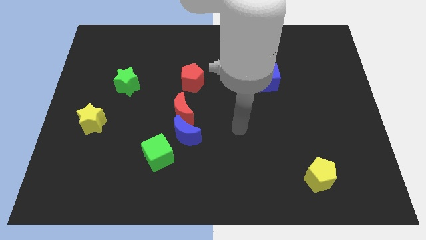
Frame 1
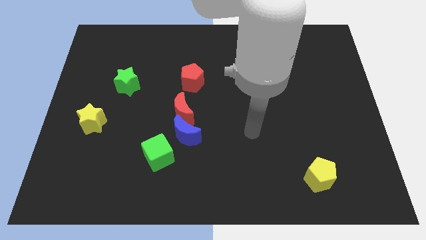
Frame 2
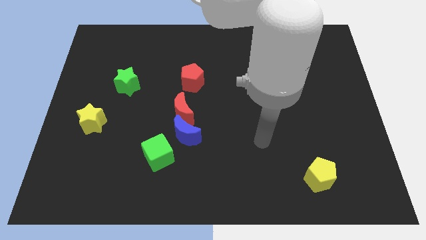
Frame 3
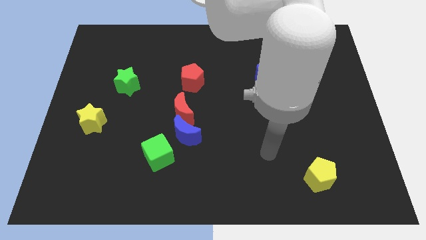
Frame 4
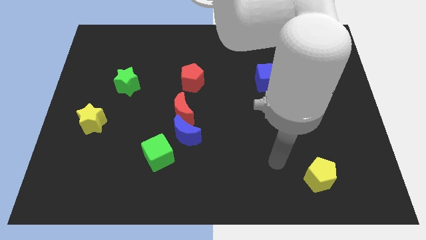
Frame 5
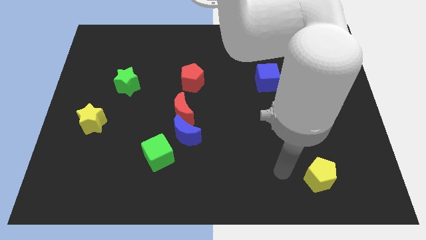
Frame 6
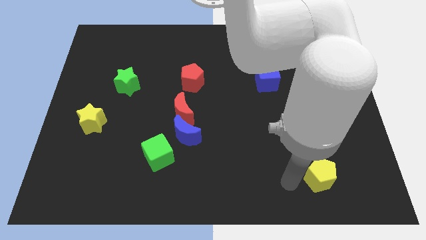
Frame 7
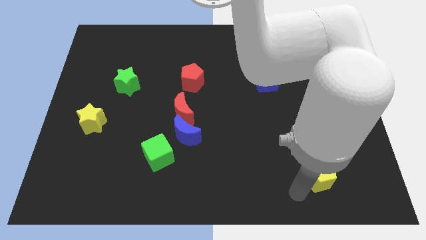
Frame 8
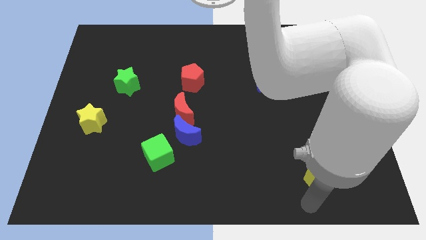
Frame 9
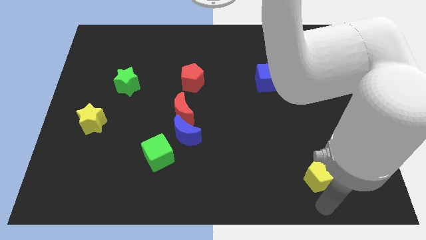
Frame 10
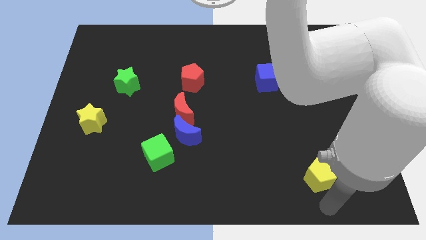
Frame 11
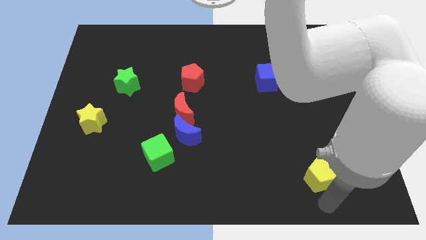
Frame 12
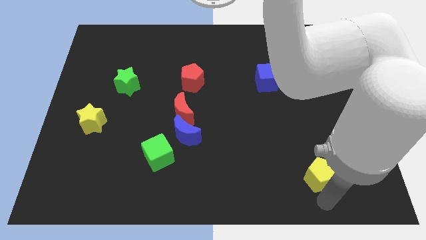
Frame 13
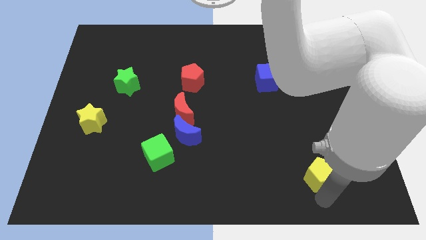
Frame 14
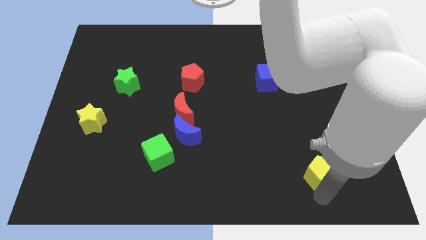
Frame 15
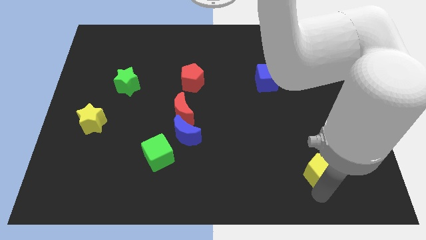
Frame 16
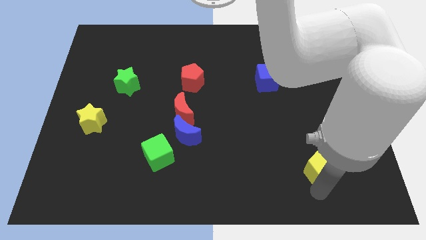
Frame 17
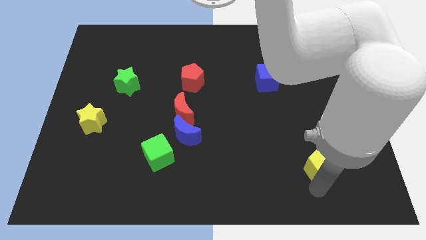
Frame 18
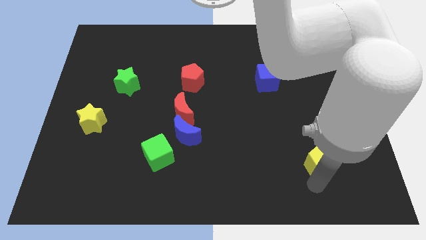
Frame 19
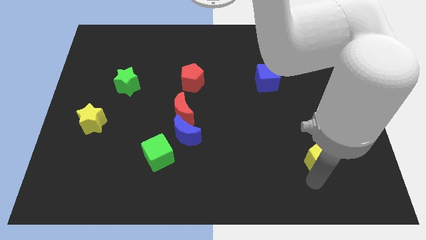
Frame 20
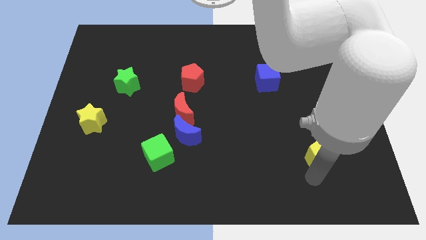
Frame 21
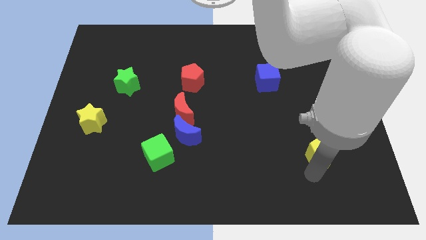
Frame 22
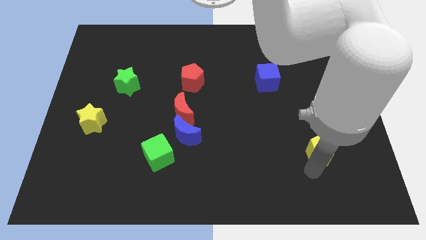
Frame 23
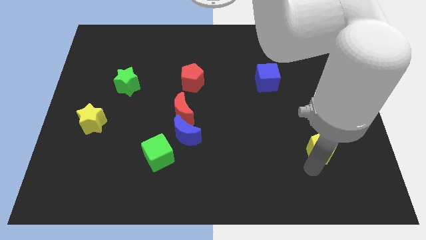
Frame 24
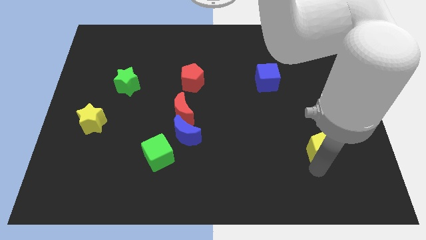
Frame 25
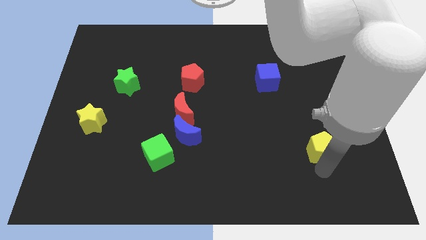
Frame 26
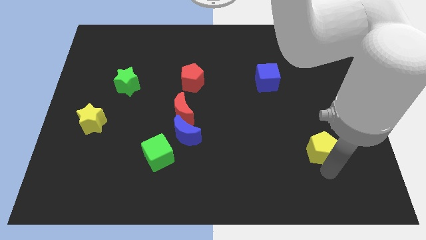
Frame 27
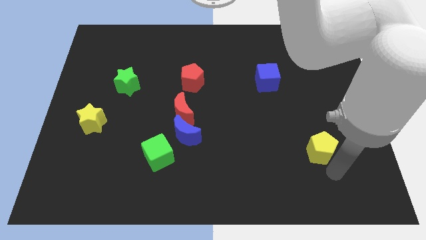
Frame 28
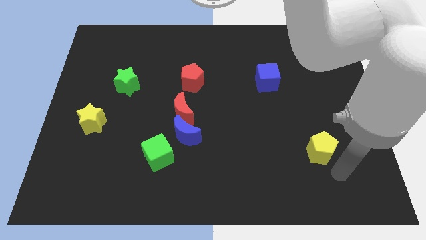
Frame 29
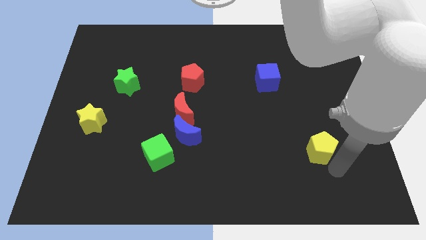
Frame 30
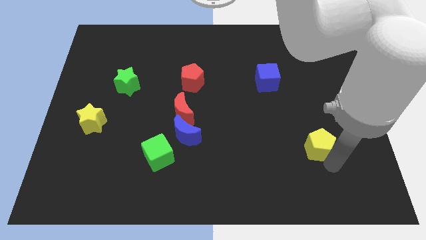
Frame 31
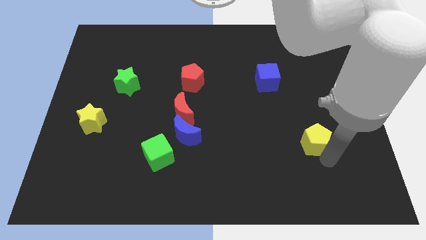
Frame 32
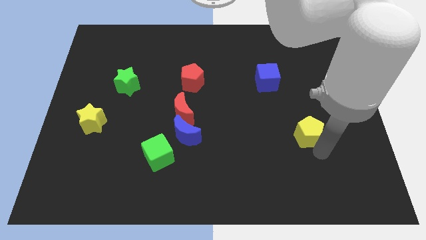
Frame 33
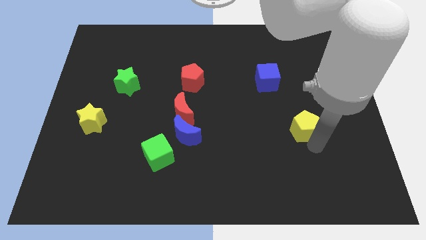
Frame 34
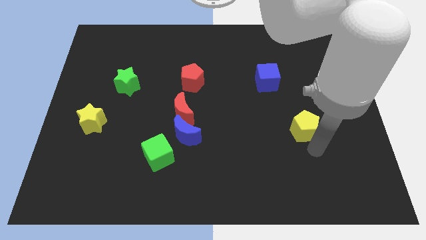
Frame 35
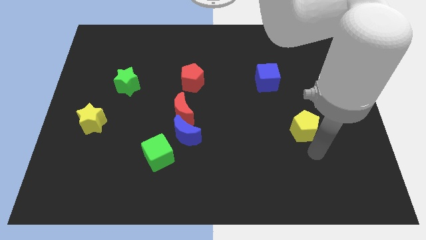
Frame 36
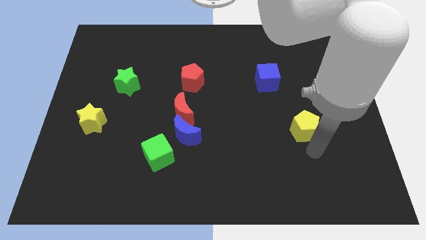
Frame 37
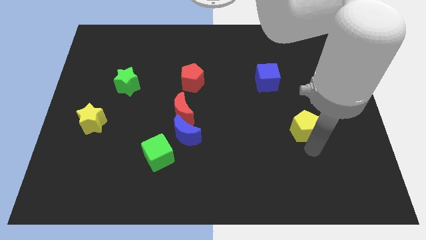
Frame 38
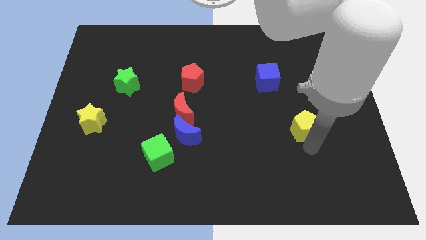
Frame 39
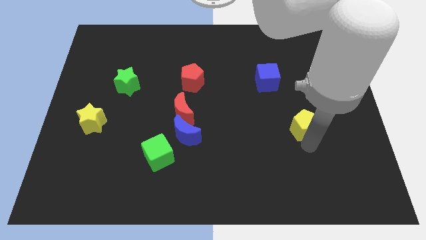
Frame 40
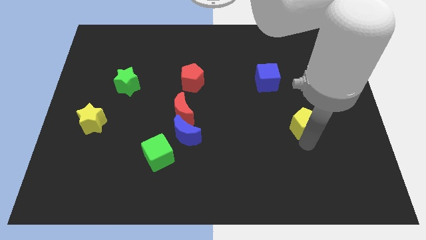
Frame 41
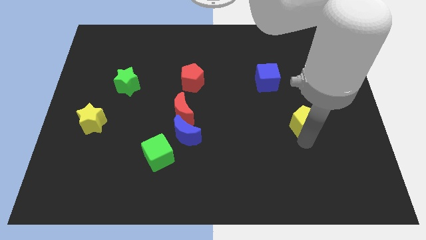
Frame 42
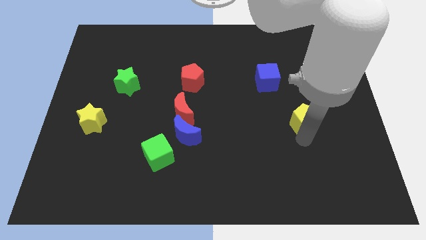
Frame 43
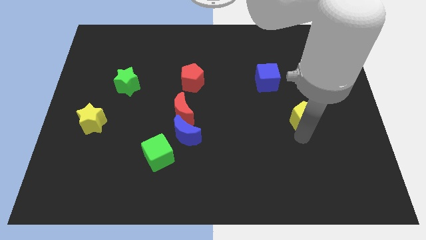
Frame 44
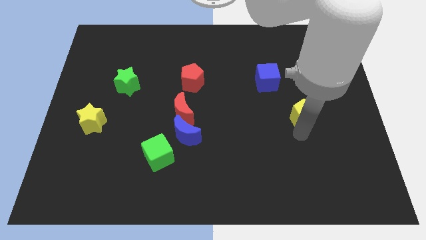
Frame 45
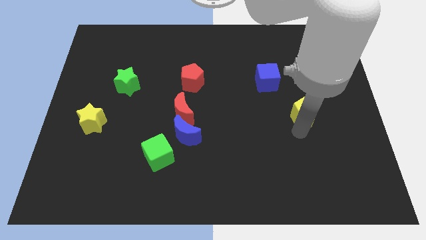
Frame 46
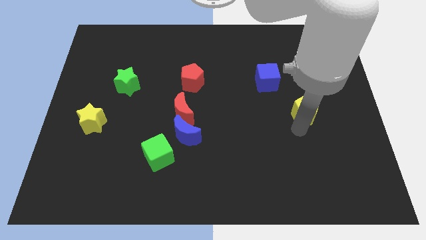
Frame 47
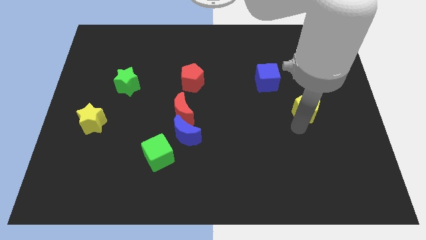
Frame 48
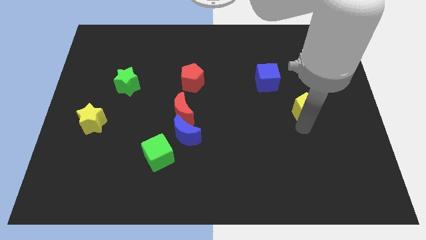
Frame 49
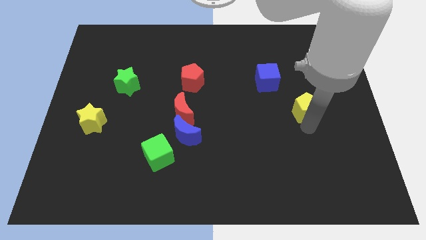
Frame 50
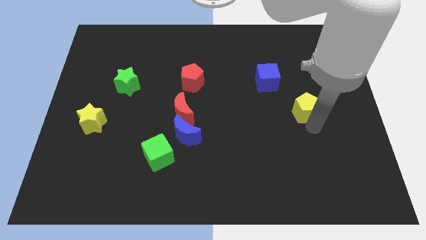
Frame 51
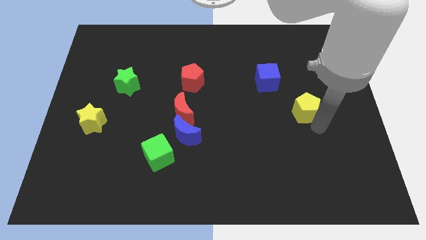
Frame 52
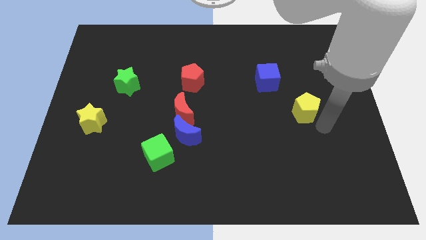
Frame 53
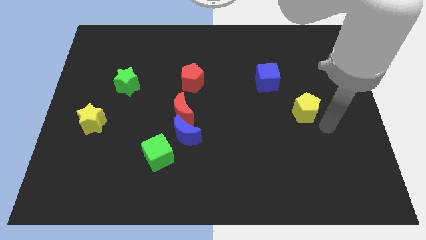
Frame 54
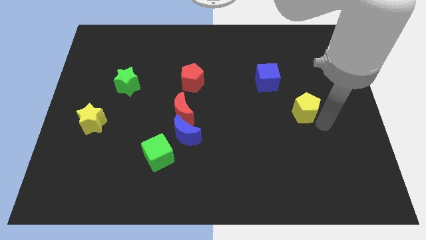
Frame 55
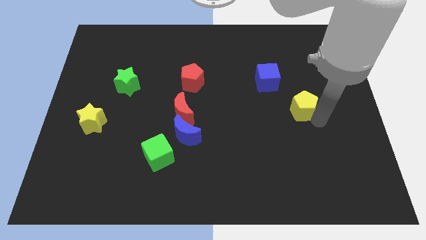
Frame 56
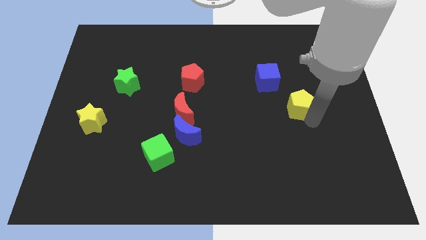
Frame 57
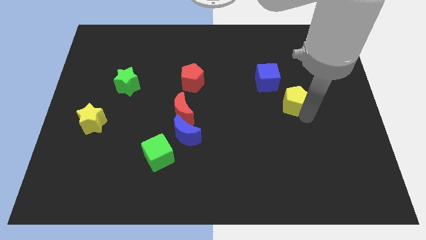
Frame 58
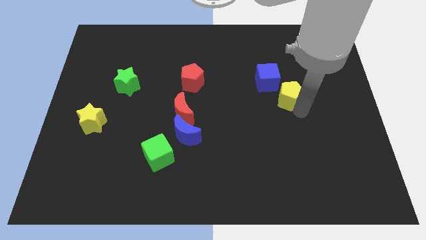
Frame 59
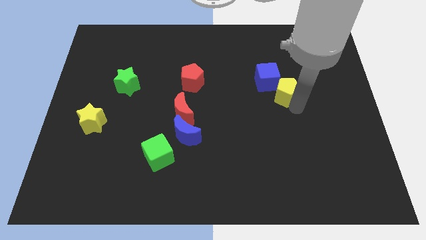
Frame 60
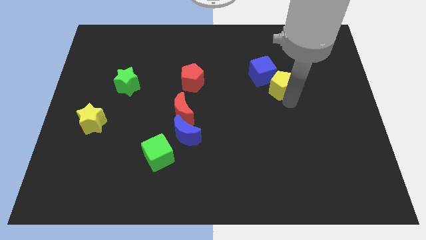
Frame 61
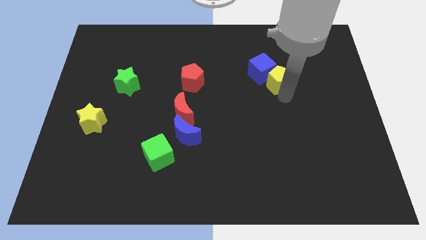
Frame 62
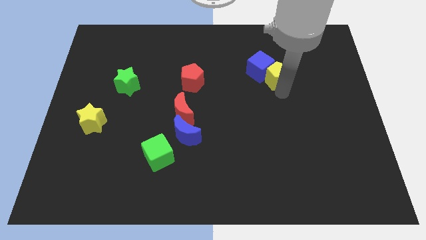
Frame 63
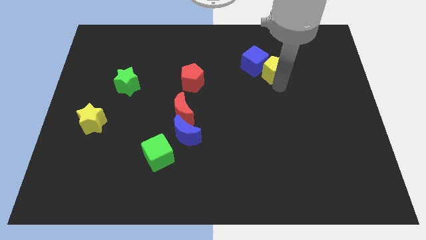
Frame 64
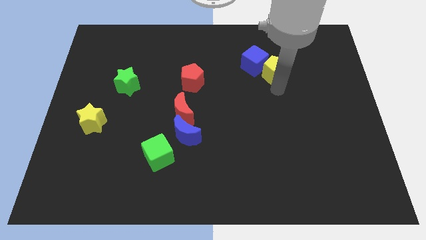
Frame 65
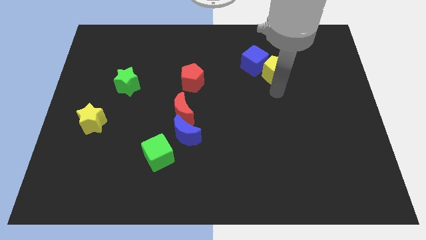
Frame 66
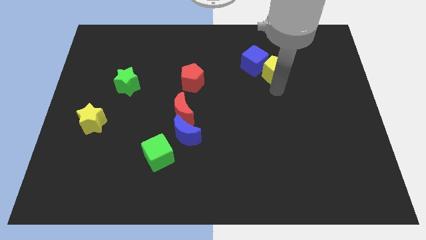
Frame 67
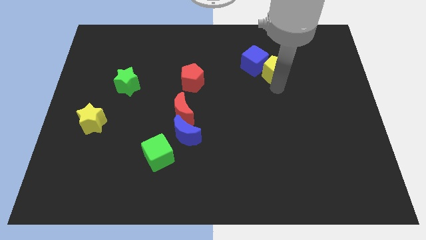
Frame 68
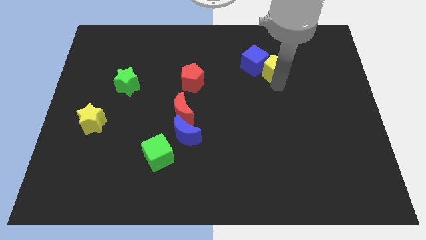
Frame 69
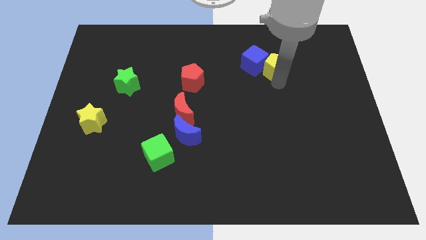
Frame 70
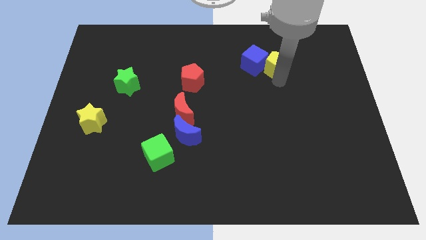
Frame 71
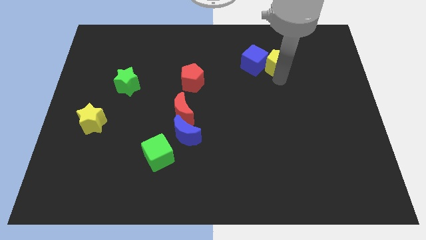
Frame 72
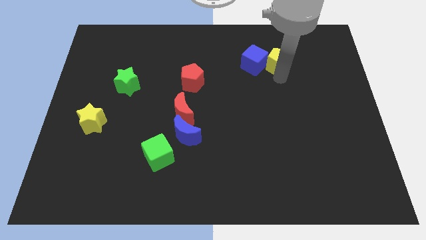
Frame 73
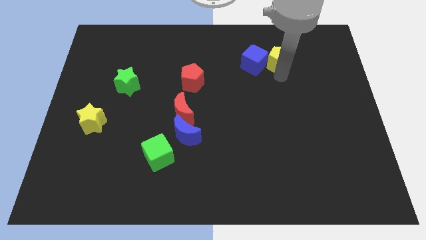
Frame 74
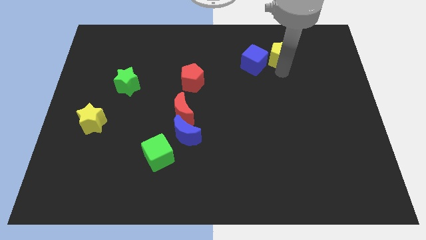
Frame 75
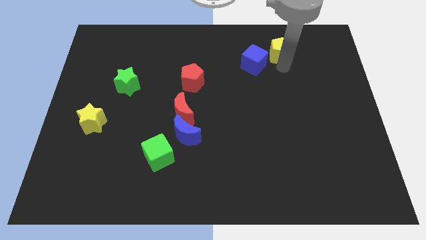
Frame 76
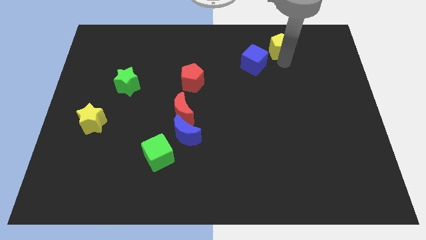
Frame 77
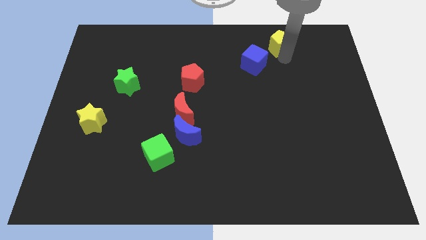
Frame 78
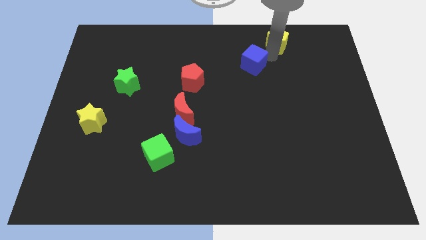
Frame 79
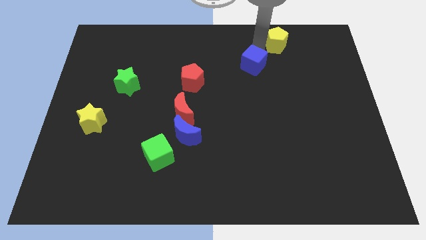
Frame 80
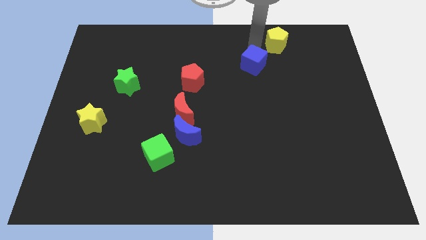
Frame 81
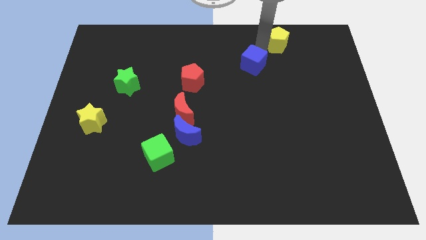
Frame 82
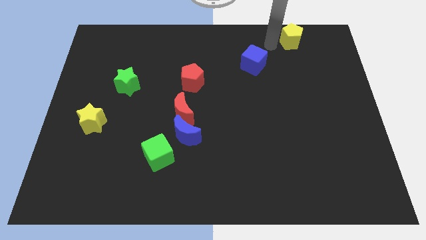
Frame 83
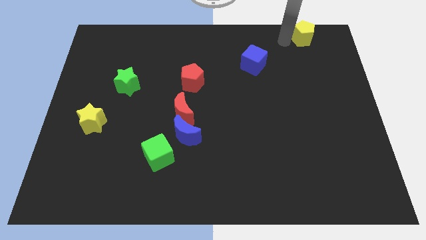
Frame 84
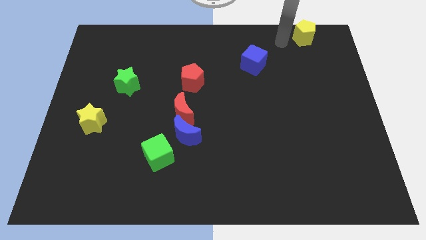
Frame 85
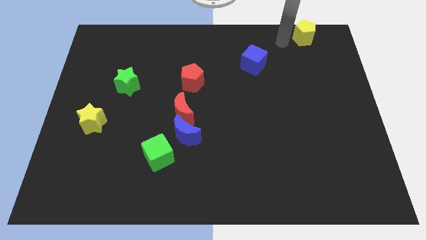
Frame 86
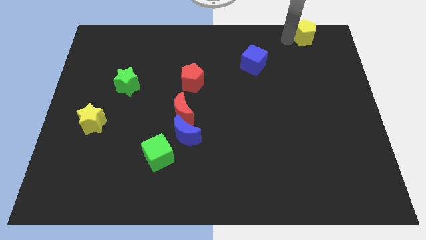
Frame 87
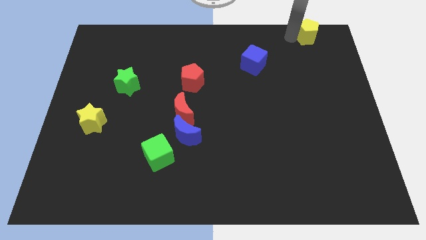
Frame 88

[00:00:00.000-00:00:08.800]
move the yellow pentagon to the top right
